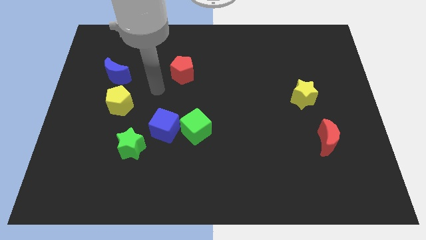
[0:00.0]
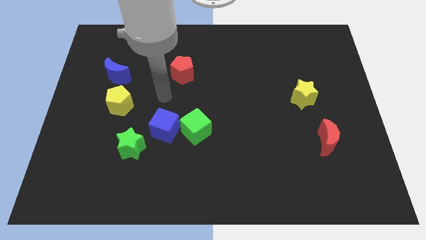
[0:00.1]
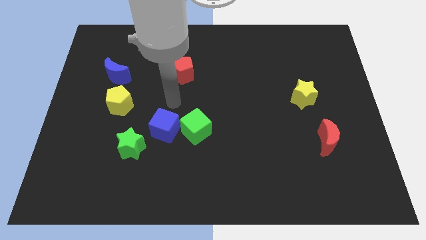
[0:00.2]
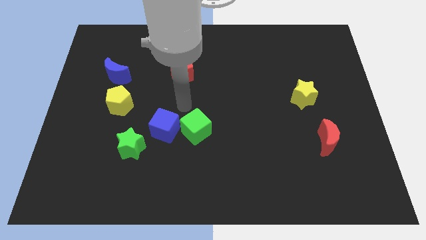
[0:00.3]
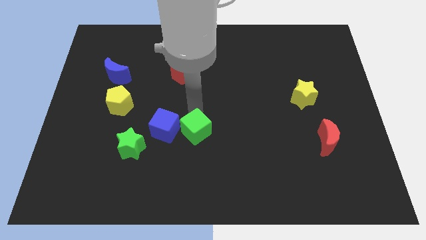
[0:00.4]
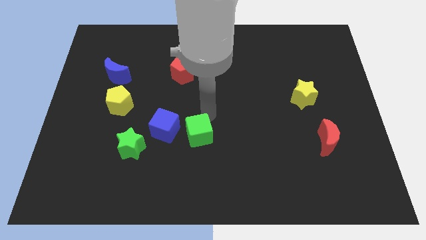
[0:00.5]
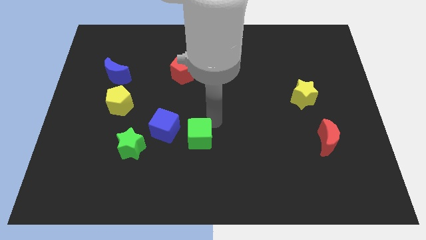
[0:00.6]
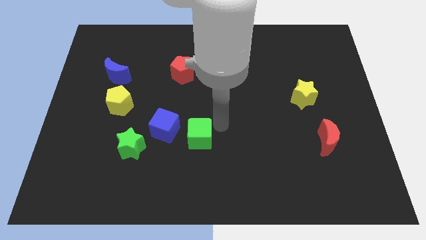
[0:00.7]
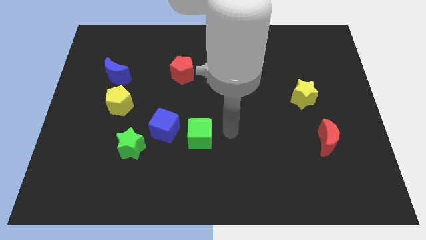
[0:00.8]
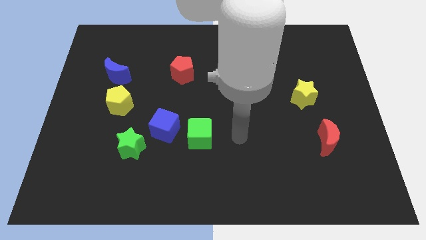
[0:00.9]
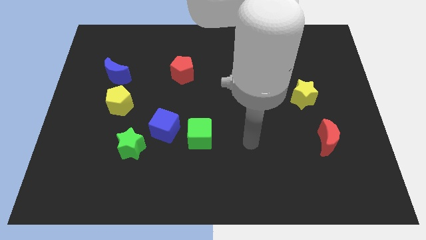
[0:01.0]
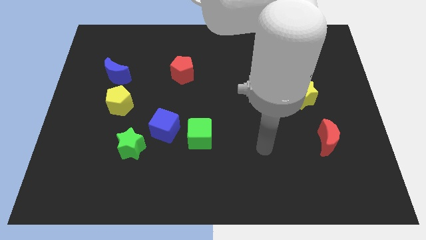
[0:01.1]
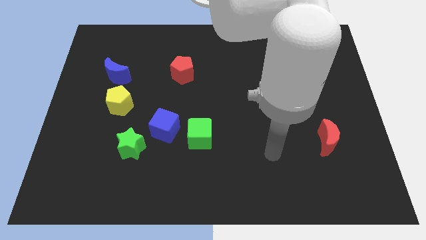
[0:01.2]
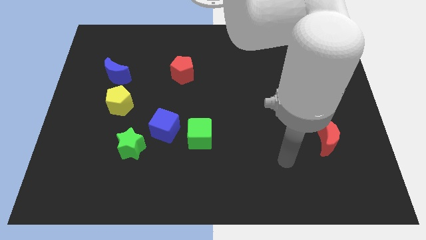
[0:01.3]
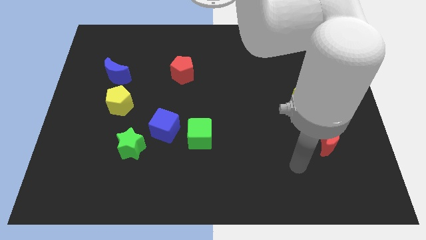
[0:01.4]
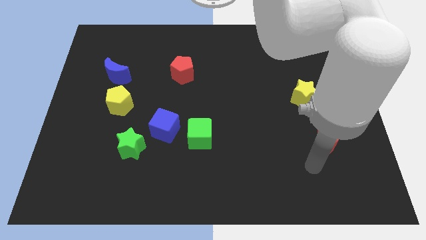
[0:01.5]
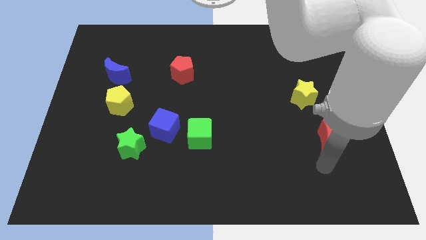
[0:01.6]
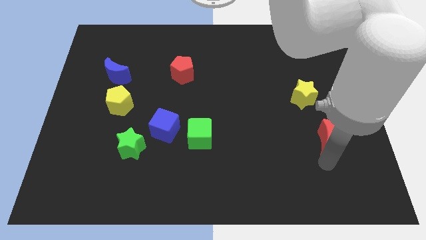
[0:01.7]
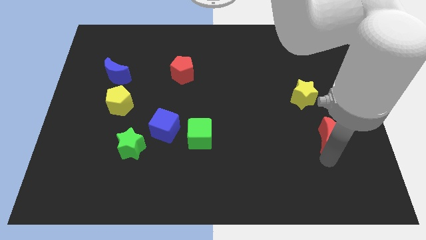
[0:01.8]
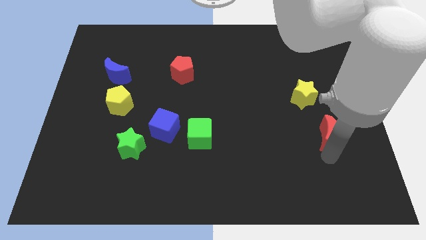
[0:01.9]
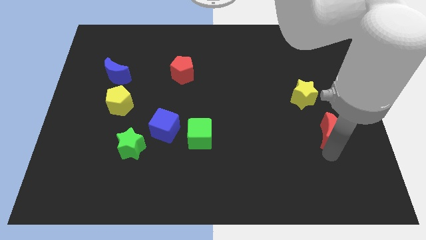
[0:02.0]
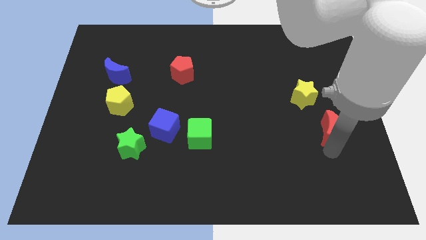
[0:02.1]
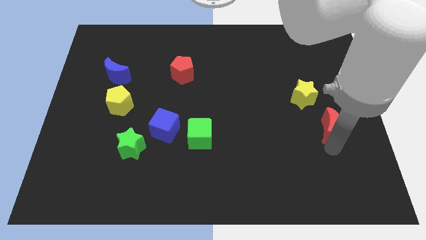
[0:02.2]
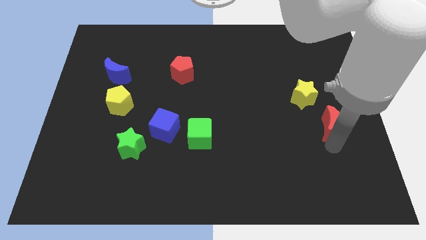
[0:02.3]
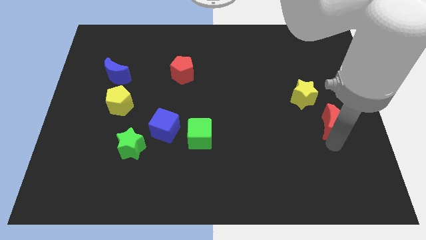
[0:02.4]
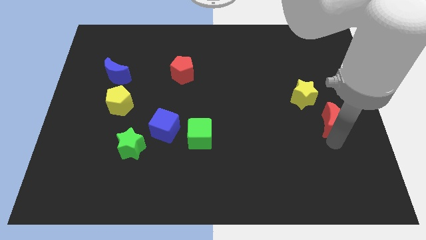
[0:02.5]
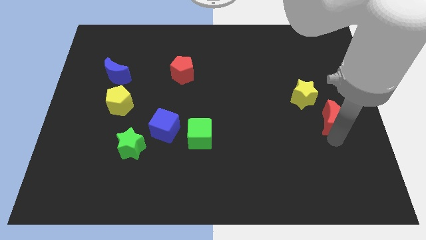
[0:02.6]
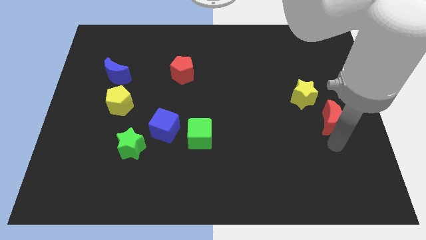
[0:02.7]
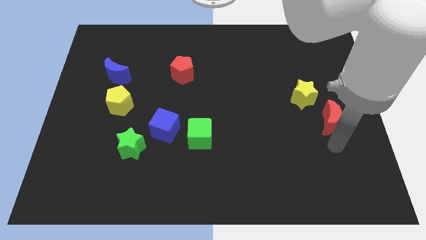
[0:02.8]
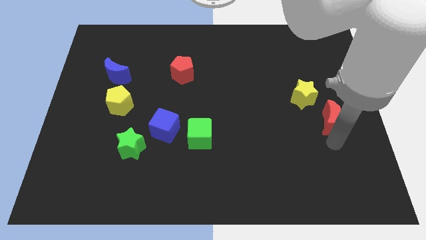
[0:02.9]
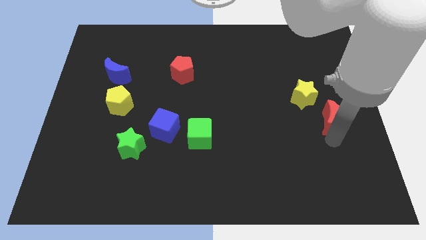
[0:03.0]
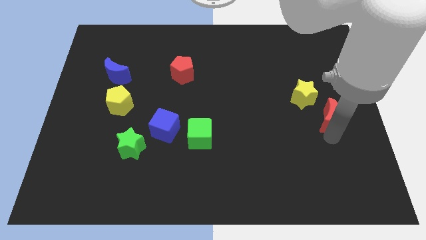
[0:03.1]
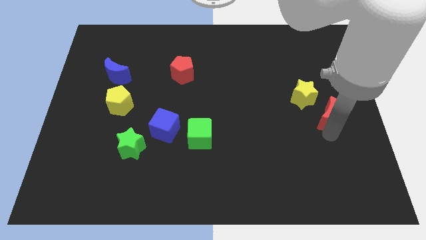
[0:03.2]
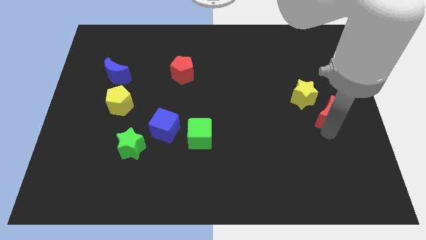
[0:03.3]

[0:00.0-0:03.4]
slightly push the red moon upwards

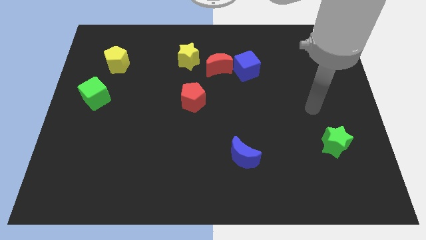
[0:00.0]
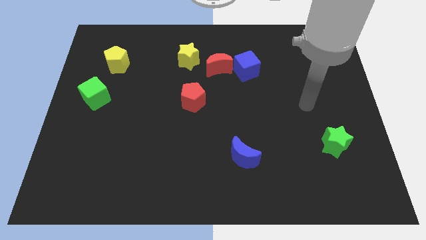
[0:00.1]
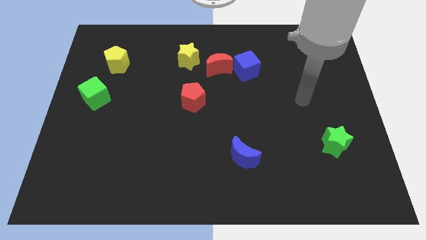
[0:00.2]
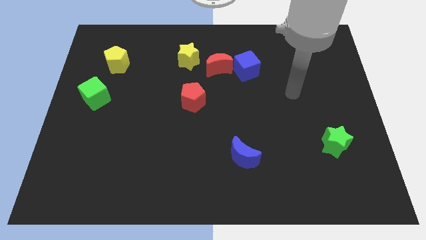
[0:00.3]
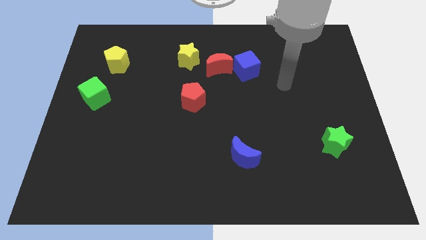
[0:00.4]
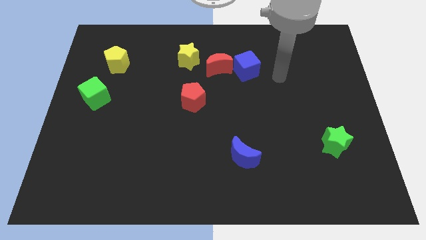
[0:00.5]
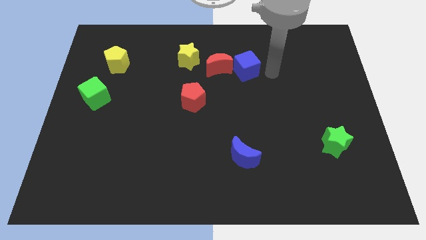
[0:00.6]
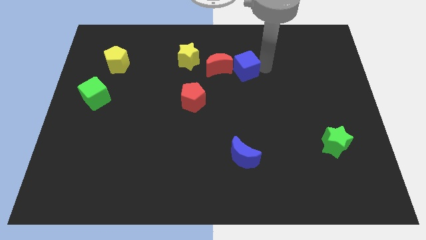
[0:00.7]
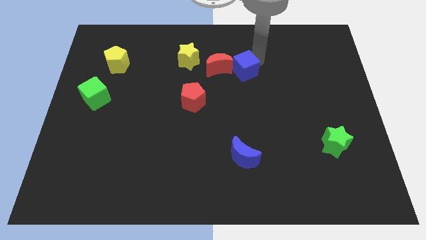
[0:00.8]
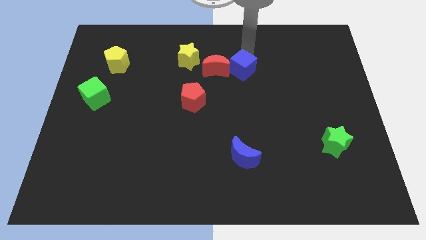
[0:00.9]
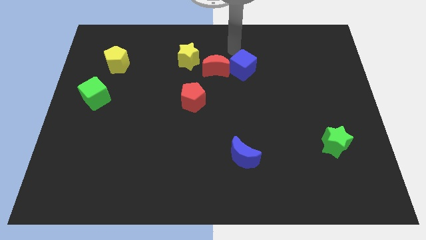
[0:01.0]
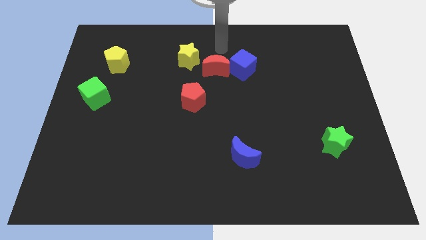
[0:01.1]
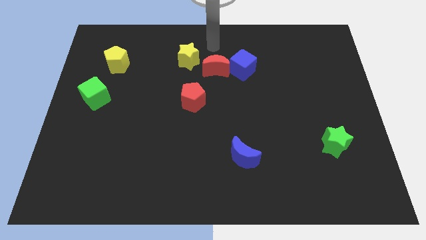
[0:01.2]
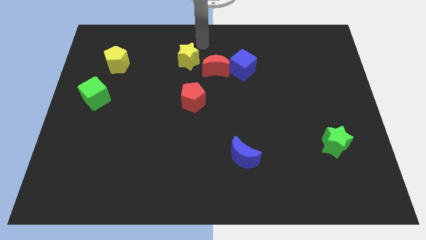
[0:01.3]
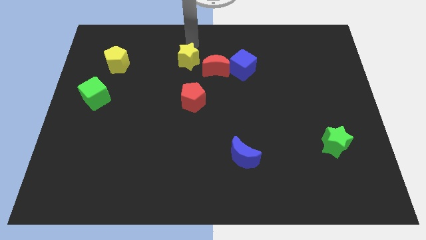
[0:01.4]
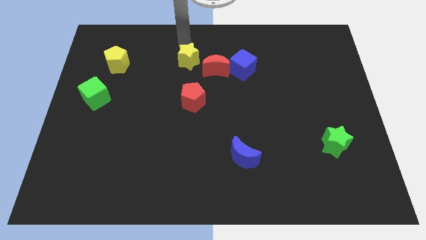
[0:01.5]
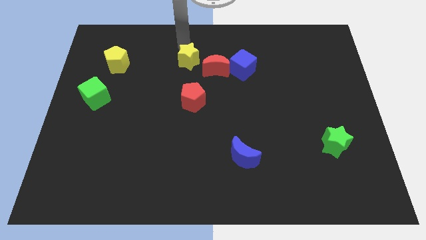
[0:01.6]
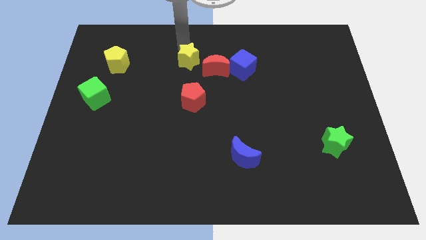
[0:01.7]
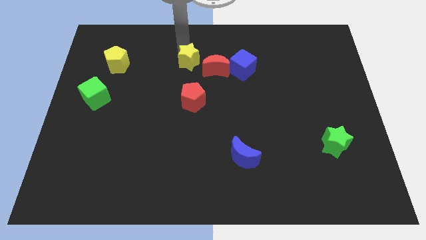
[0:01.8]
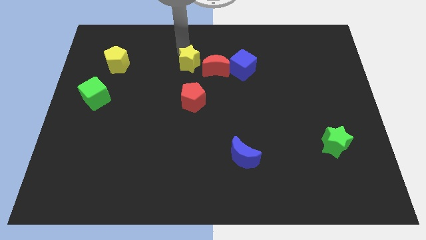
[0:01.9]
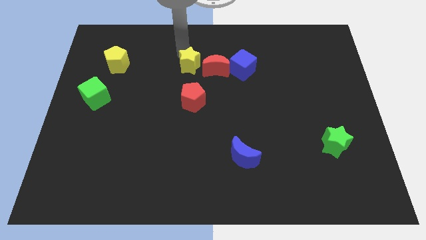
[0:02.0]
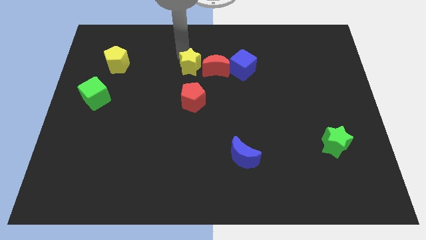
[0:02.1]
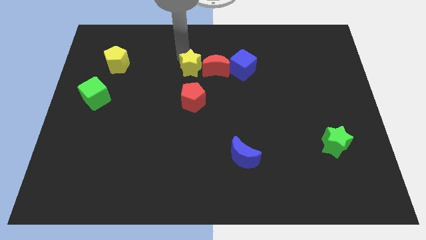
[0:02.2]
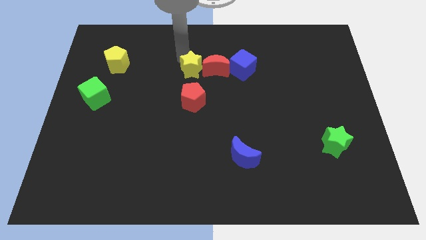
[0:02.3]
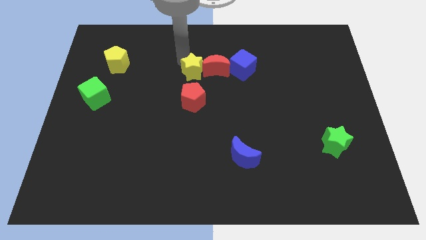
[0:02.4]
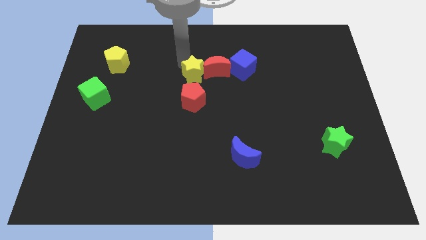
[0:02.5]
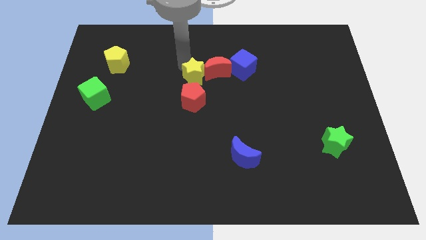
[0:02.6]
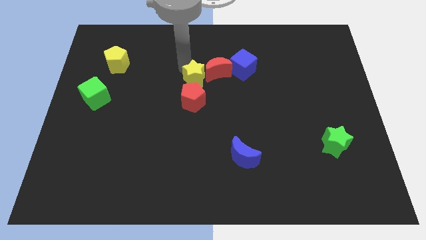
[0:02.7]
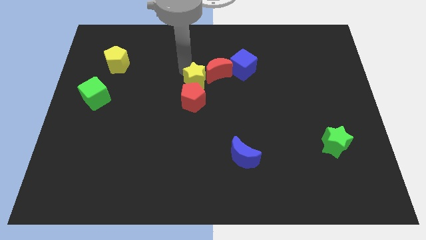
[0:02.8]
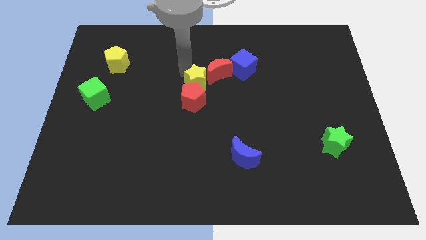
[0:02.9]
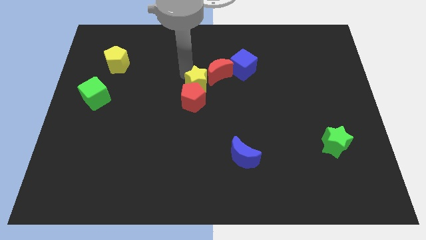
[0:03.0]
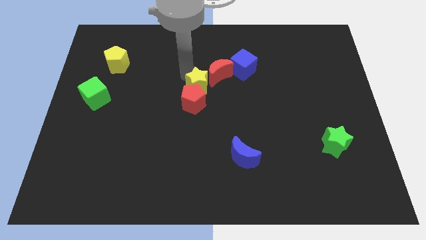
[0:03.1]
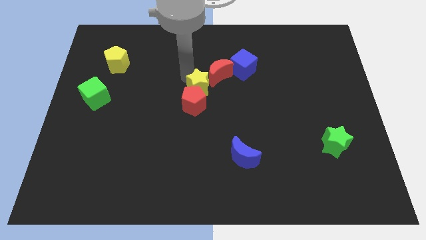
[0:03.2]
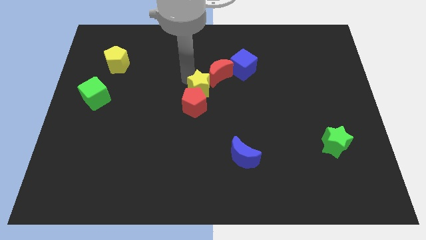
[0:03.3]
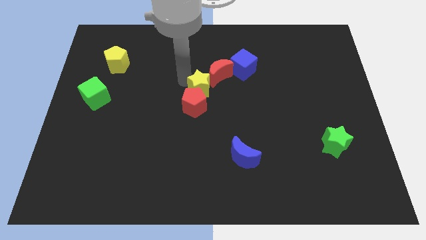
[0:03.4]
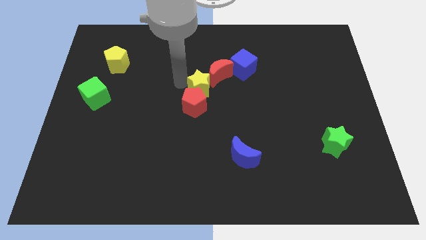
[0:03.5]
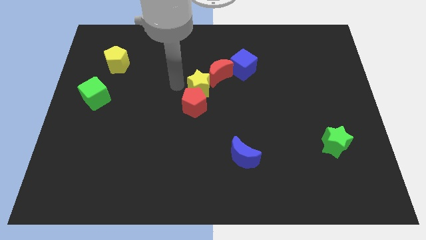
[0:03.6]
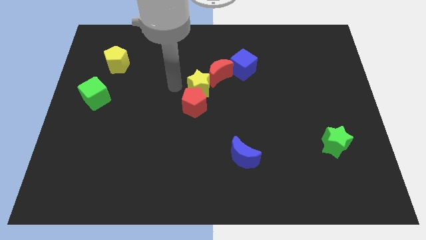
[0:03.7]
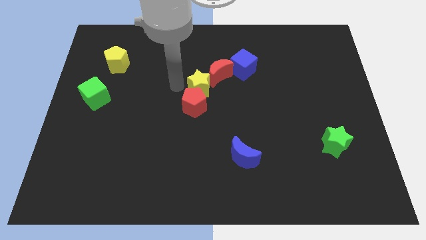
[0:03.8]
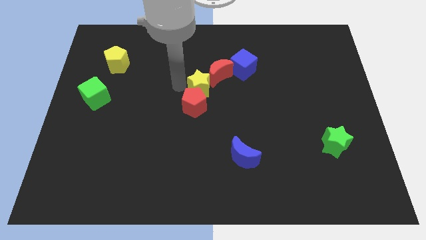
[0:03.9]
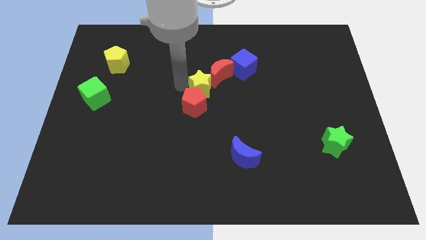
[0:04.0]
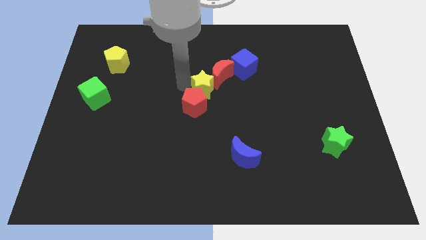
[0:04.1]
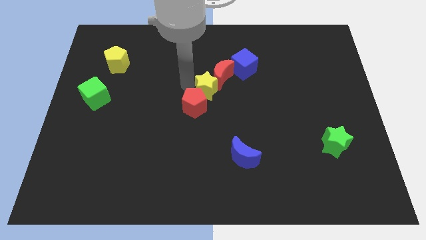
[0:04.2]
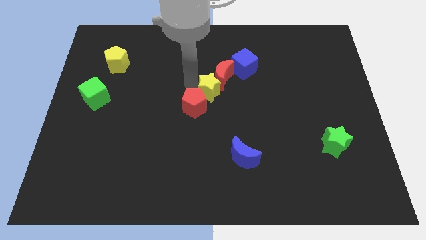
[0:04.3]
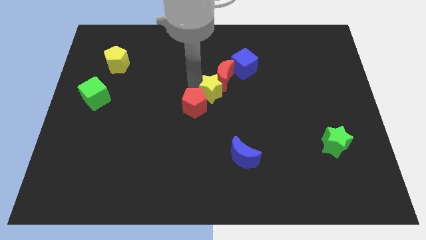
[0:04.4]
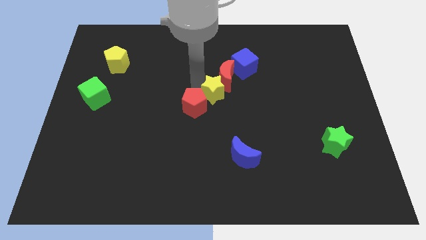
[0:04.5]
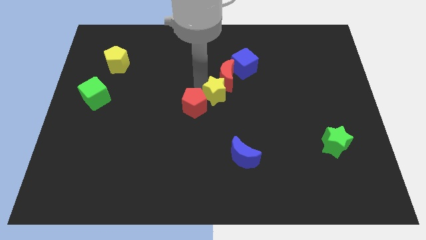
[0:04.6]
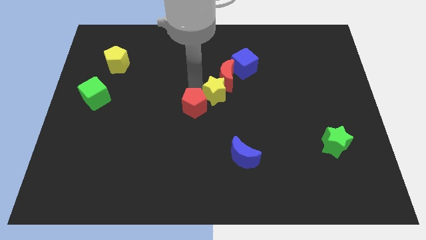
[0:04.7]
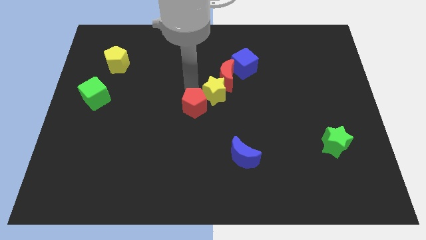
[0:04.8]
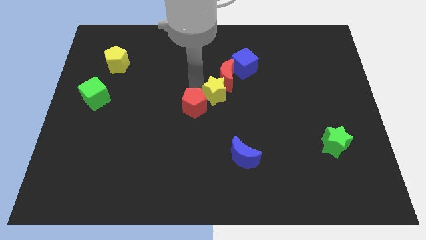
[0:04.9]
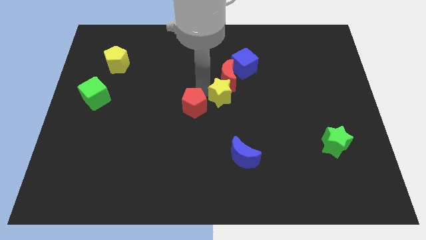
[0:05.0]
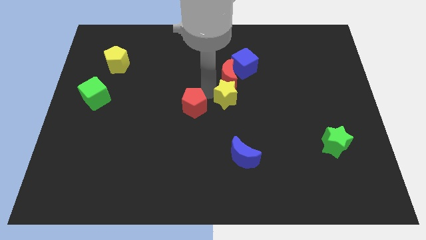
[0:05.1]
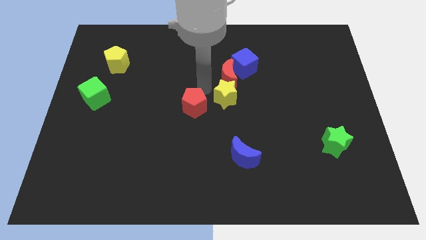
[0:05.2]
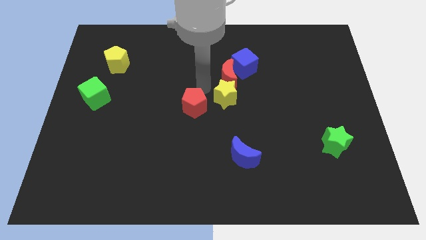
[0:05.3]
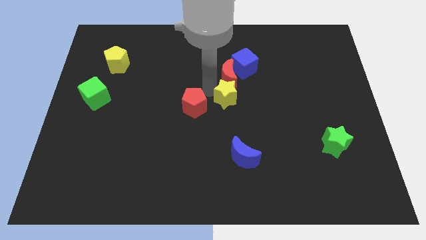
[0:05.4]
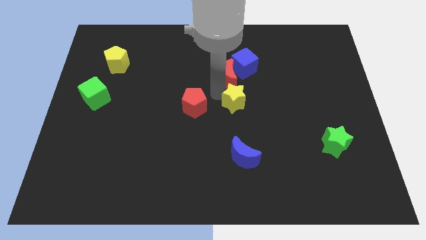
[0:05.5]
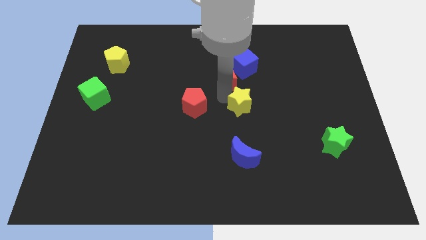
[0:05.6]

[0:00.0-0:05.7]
push the yellow star diagonally downwards and right
